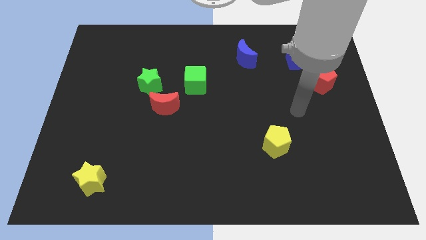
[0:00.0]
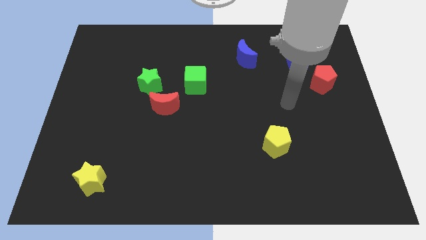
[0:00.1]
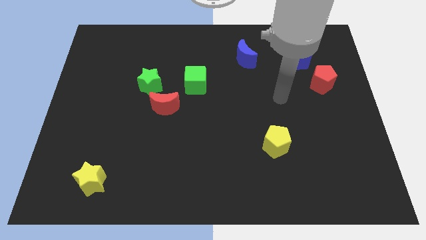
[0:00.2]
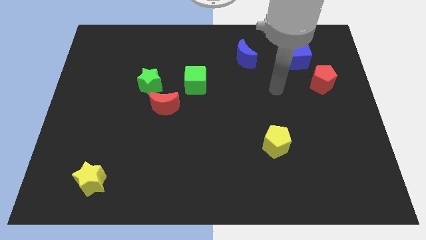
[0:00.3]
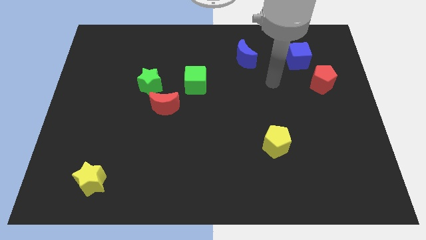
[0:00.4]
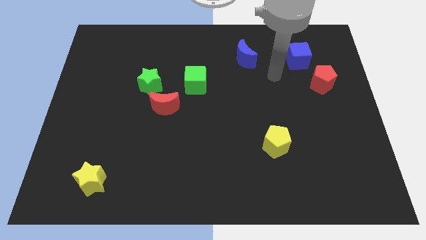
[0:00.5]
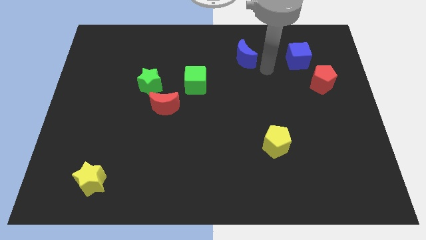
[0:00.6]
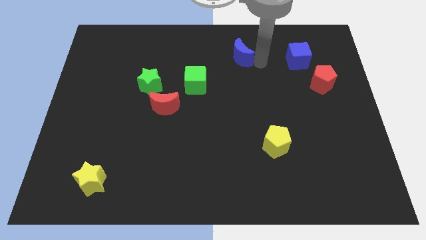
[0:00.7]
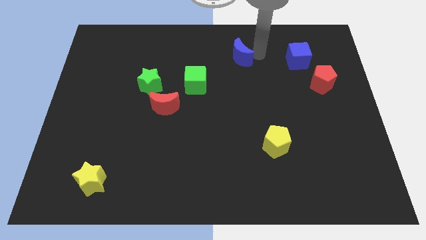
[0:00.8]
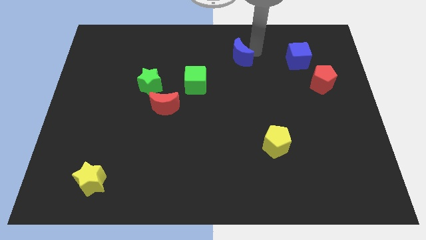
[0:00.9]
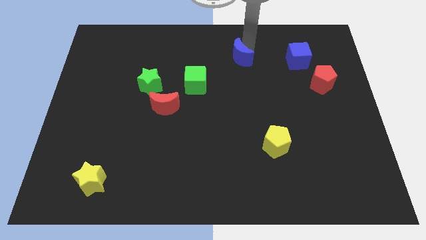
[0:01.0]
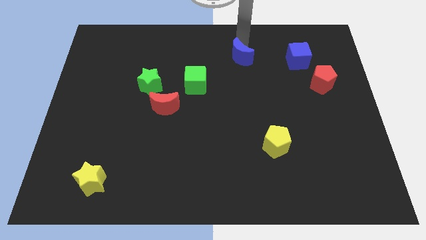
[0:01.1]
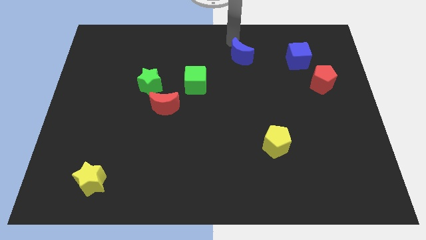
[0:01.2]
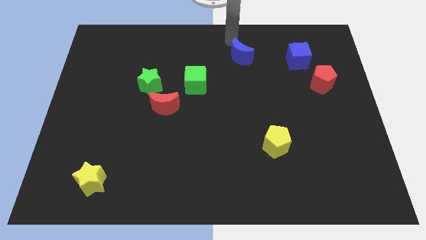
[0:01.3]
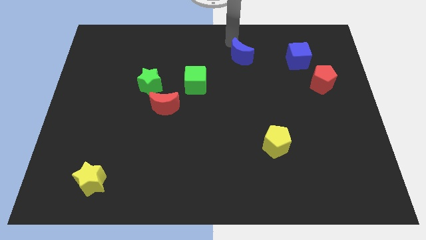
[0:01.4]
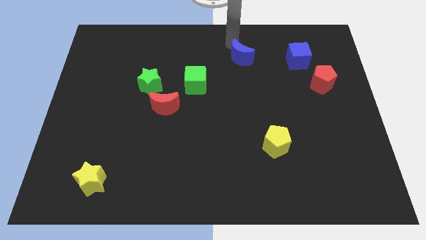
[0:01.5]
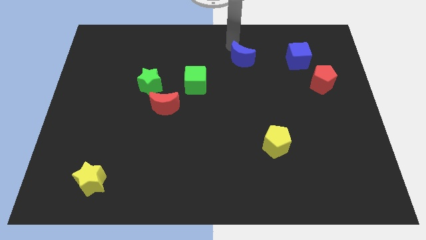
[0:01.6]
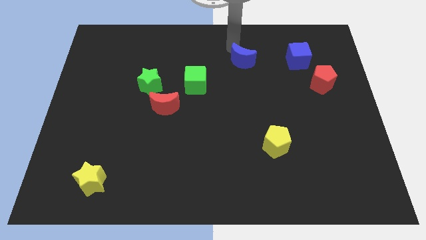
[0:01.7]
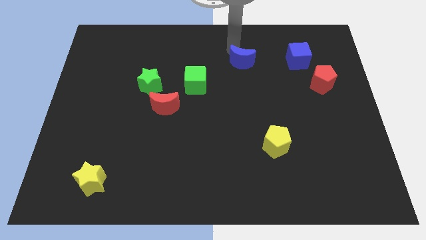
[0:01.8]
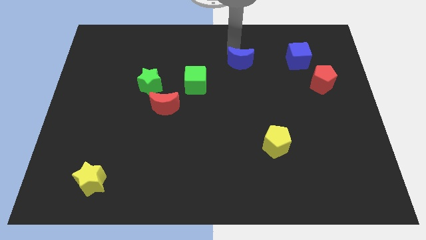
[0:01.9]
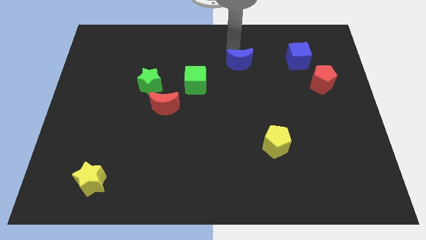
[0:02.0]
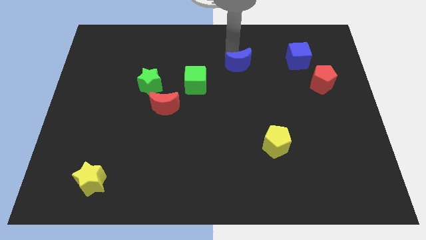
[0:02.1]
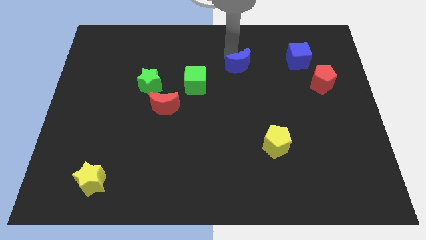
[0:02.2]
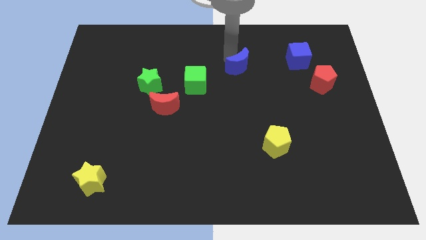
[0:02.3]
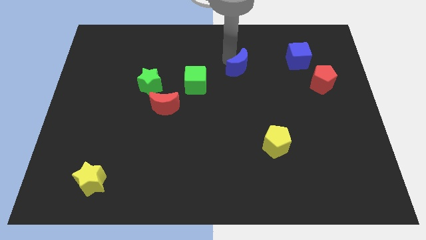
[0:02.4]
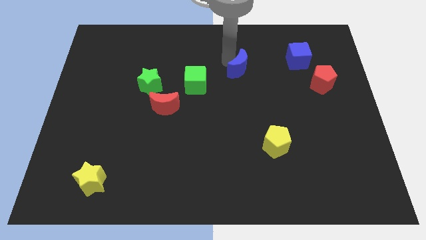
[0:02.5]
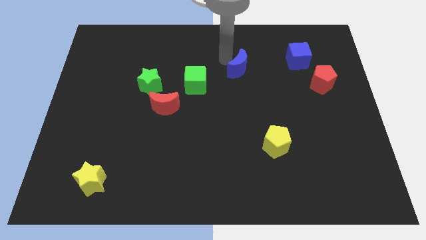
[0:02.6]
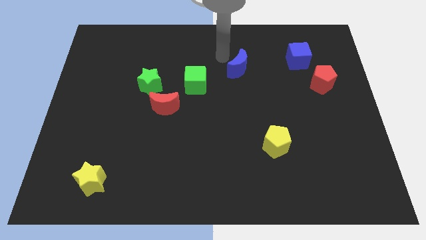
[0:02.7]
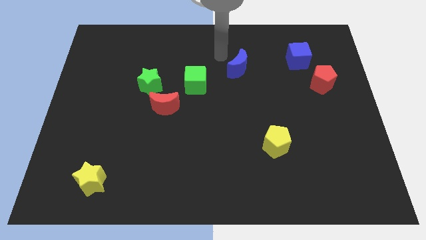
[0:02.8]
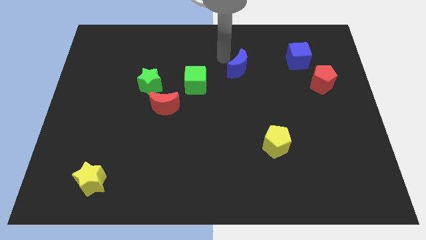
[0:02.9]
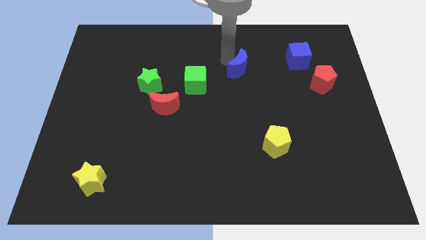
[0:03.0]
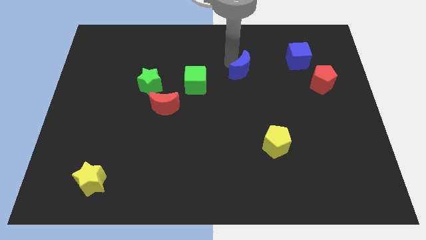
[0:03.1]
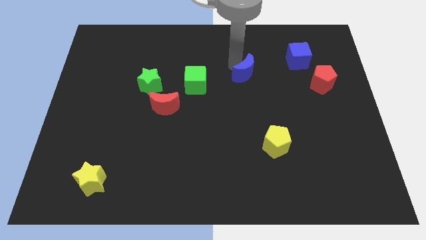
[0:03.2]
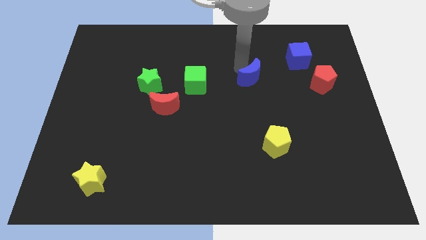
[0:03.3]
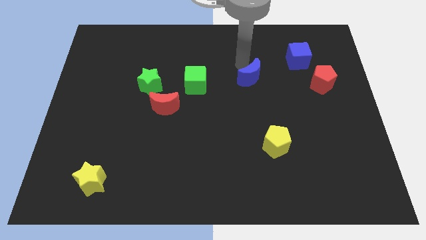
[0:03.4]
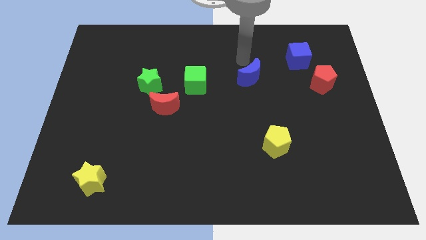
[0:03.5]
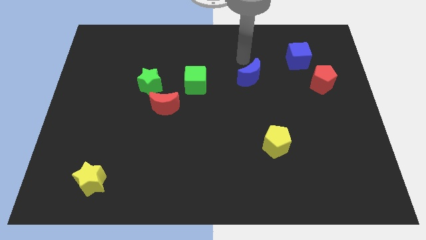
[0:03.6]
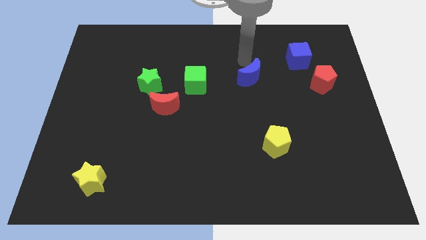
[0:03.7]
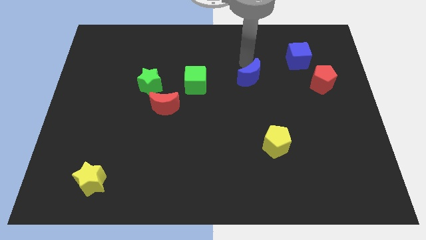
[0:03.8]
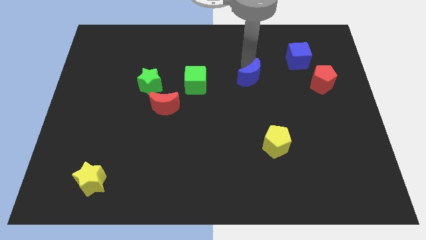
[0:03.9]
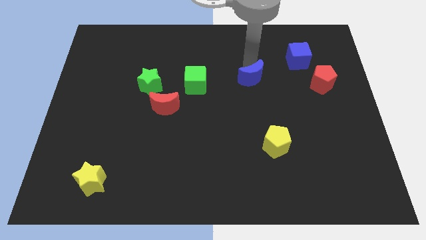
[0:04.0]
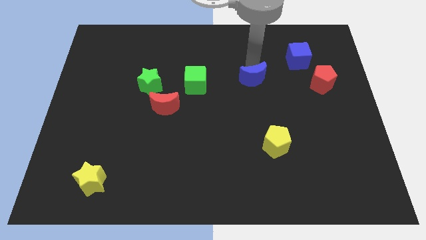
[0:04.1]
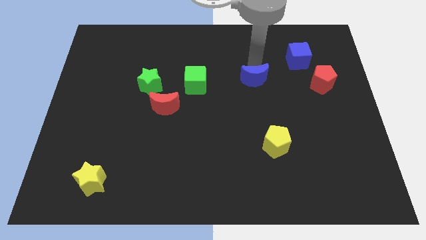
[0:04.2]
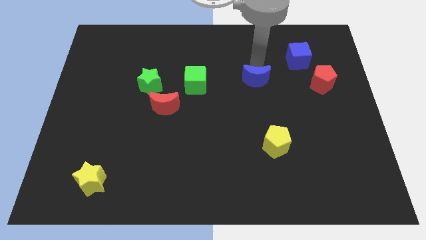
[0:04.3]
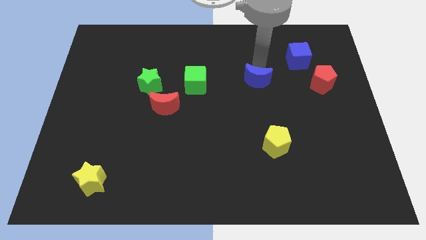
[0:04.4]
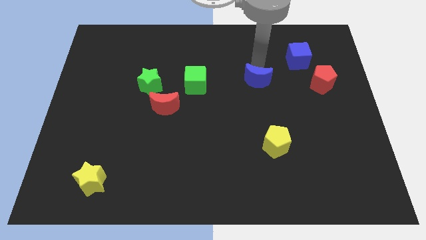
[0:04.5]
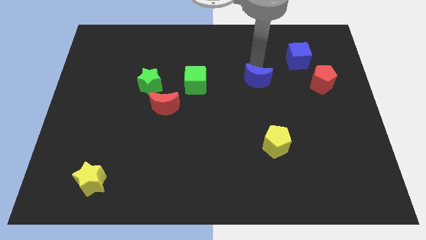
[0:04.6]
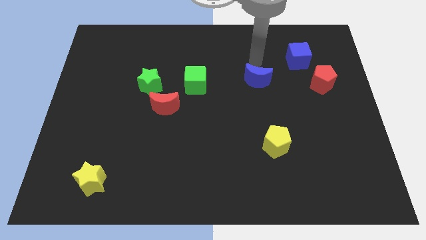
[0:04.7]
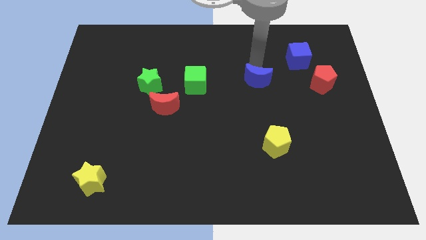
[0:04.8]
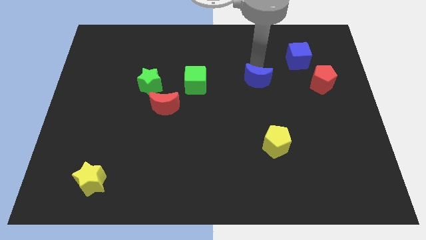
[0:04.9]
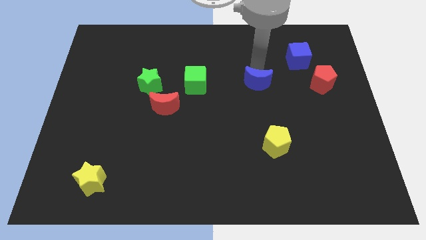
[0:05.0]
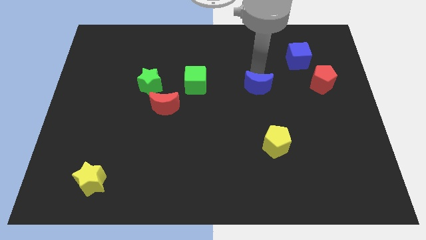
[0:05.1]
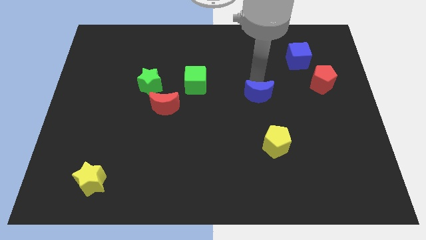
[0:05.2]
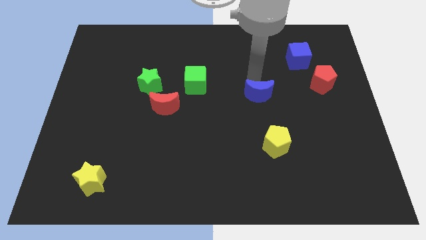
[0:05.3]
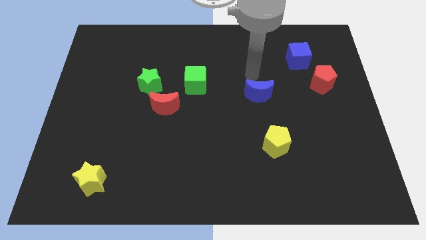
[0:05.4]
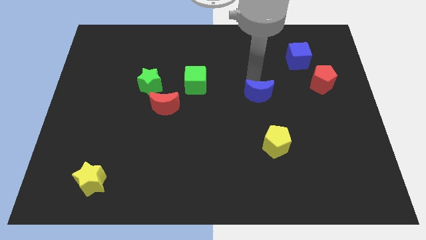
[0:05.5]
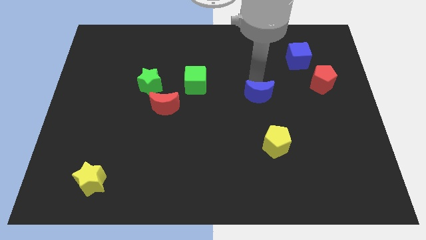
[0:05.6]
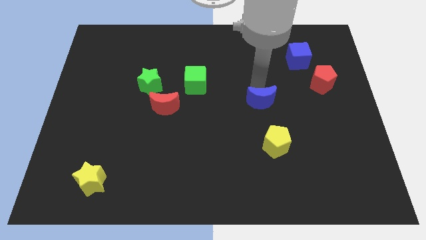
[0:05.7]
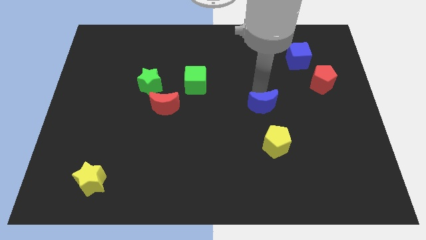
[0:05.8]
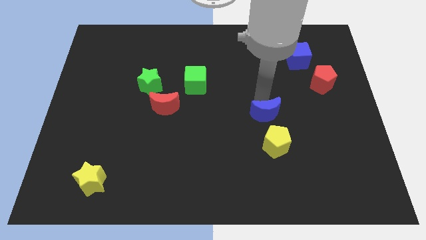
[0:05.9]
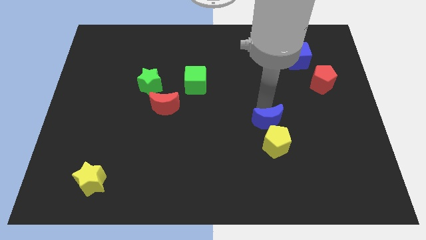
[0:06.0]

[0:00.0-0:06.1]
put the blue moon next to the yellow pentagon

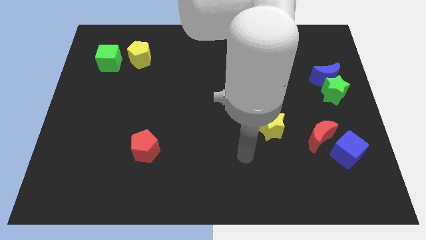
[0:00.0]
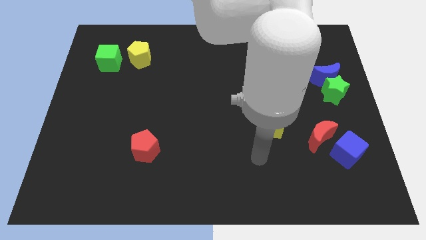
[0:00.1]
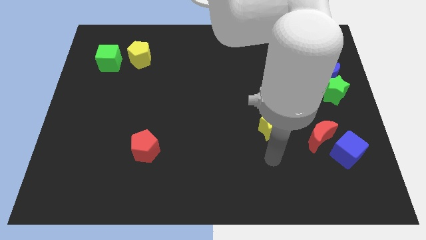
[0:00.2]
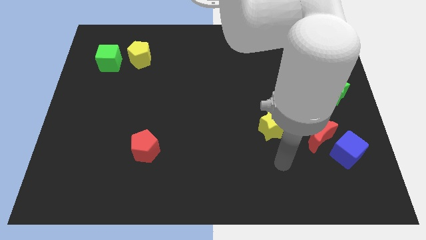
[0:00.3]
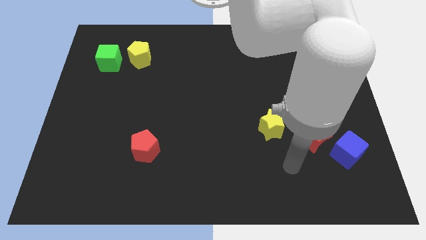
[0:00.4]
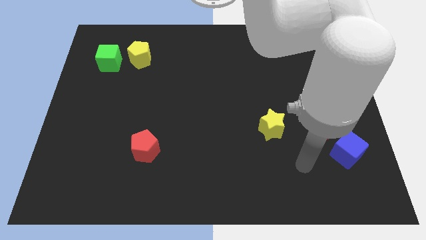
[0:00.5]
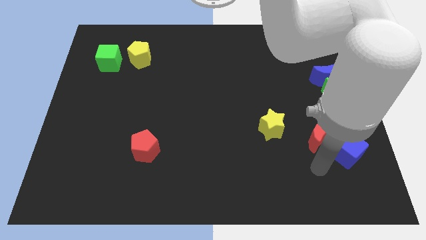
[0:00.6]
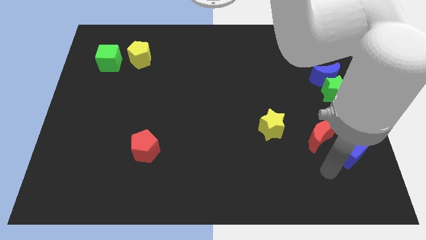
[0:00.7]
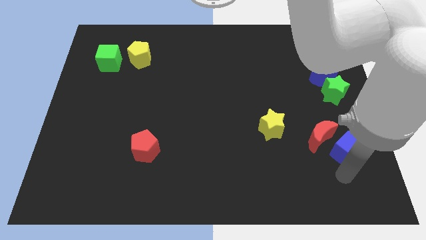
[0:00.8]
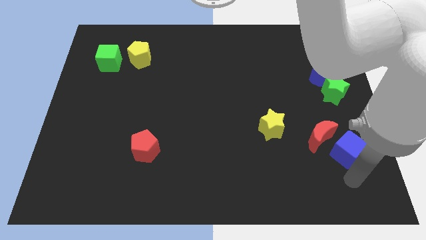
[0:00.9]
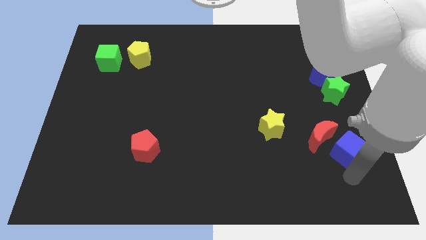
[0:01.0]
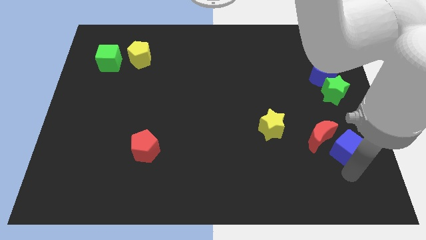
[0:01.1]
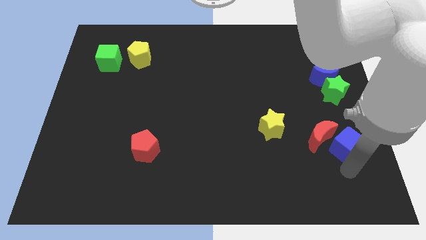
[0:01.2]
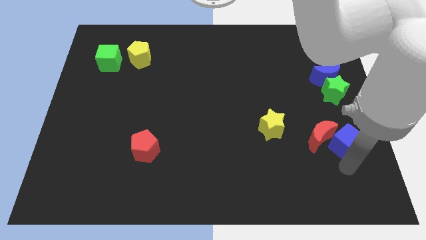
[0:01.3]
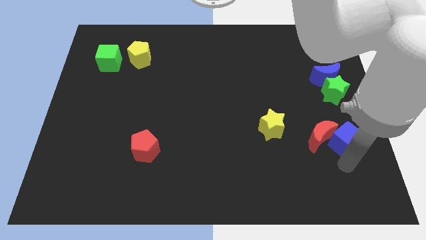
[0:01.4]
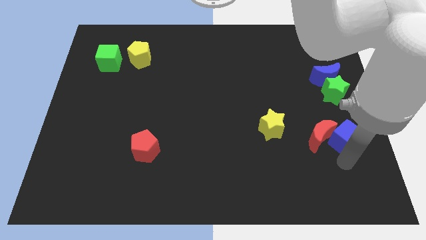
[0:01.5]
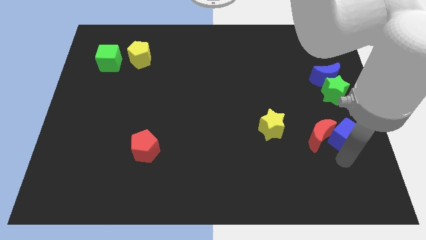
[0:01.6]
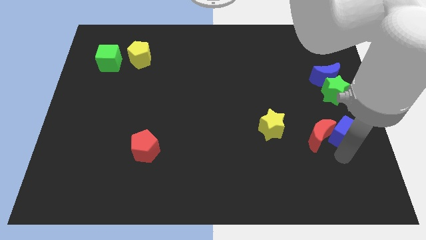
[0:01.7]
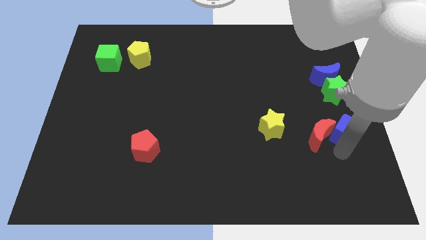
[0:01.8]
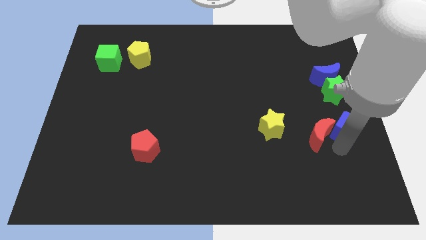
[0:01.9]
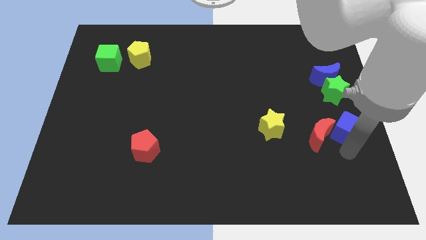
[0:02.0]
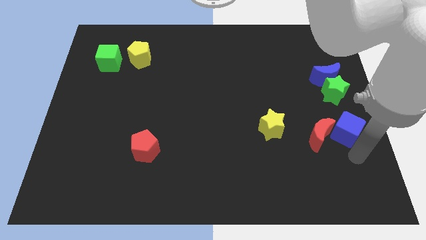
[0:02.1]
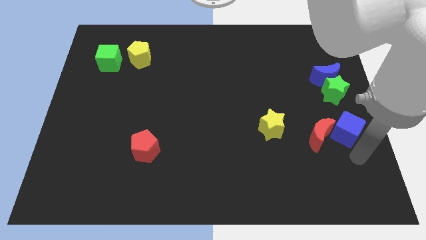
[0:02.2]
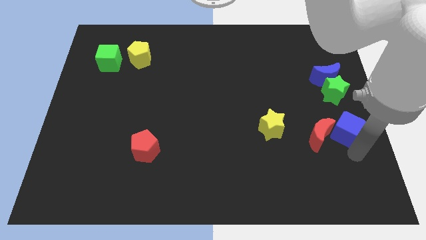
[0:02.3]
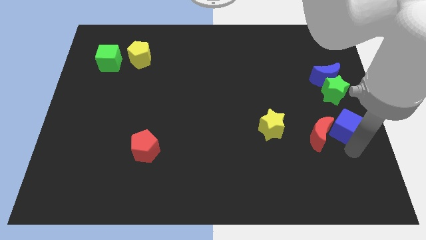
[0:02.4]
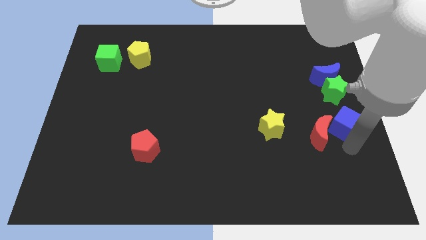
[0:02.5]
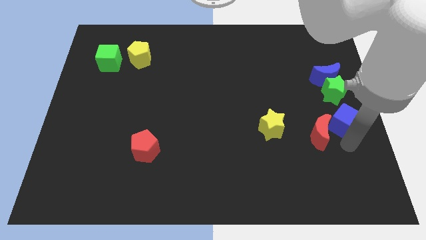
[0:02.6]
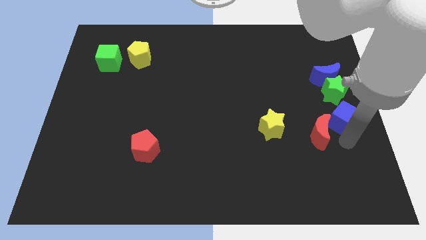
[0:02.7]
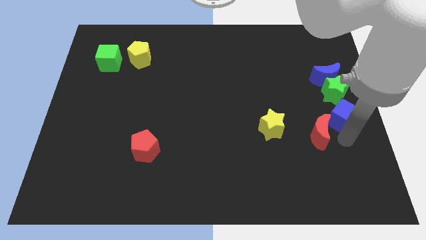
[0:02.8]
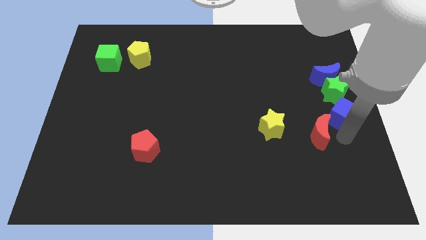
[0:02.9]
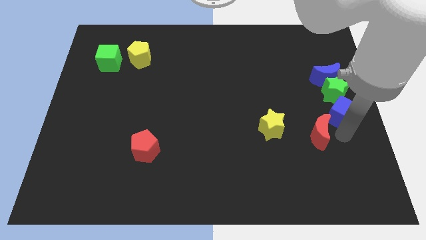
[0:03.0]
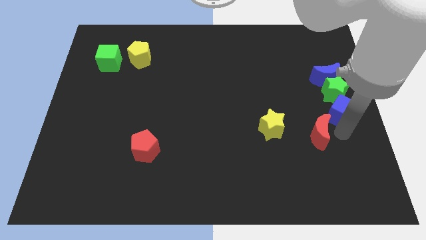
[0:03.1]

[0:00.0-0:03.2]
slide the blue cube towards the green star
